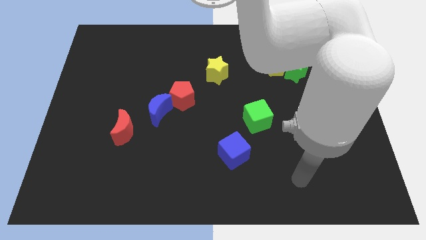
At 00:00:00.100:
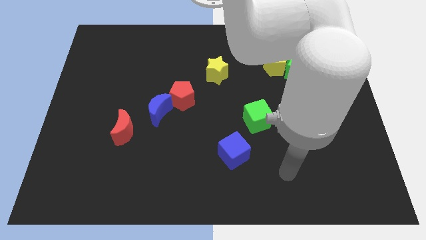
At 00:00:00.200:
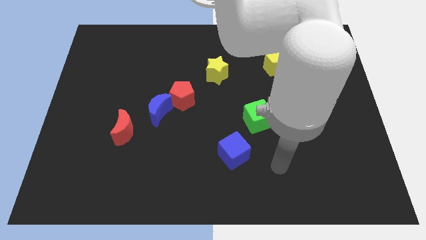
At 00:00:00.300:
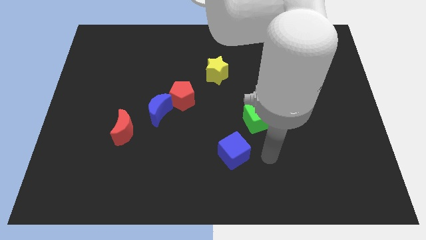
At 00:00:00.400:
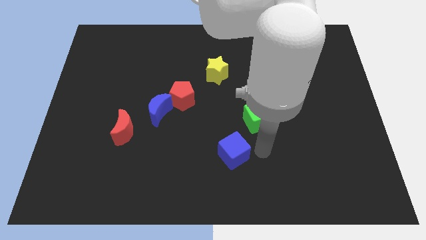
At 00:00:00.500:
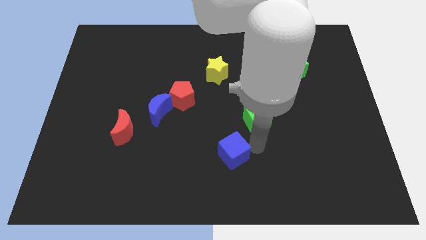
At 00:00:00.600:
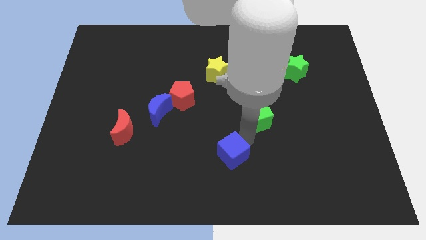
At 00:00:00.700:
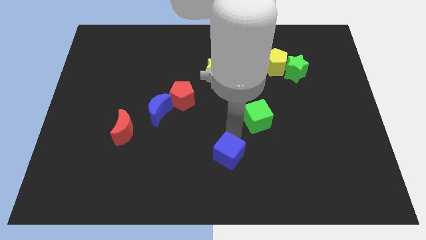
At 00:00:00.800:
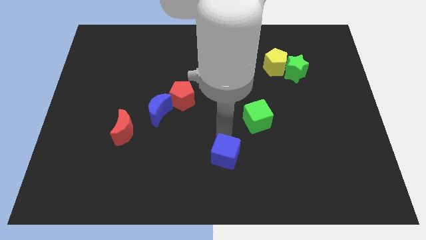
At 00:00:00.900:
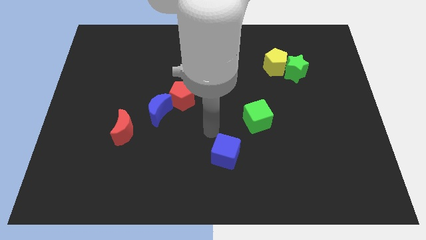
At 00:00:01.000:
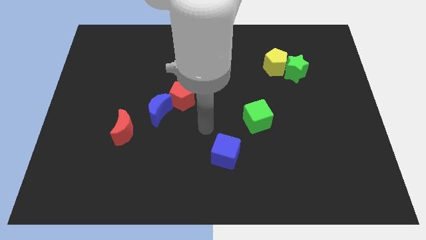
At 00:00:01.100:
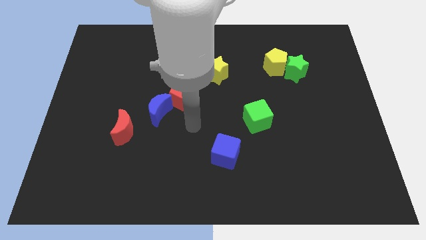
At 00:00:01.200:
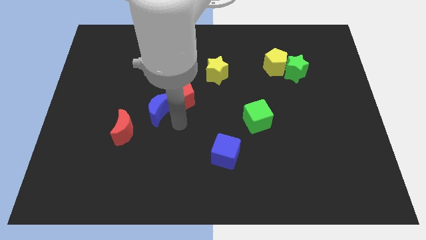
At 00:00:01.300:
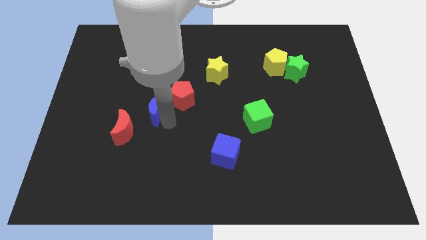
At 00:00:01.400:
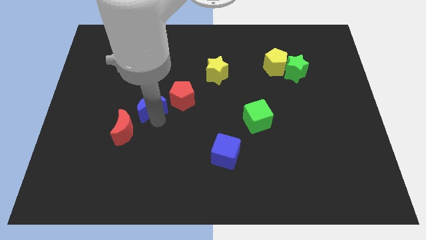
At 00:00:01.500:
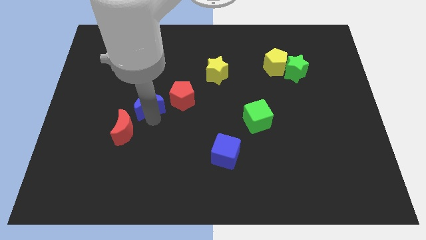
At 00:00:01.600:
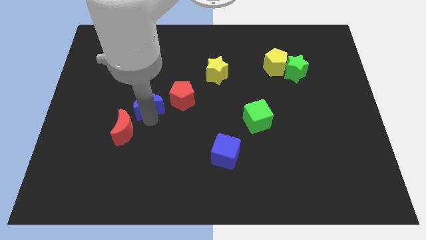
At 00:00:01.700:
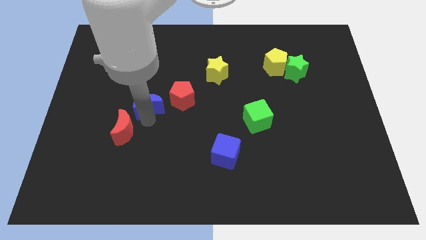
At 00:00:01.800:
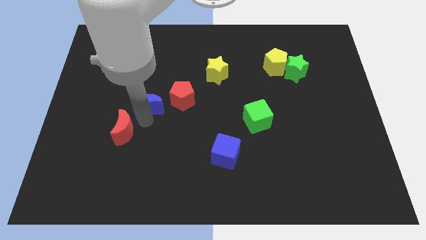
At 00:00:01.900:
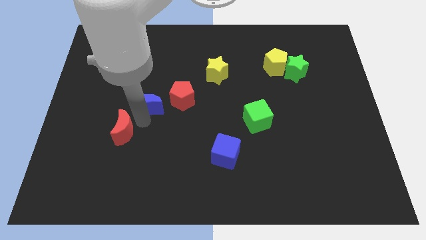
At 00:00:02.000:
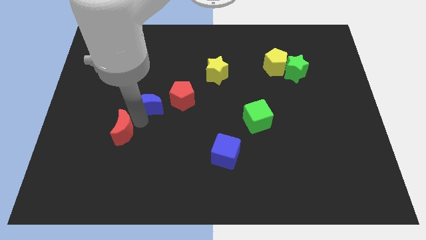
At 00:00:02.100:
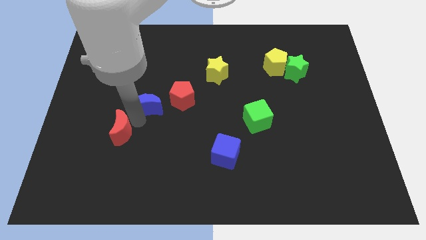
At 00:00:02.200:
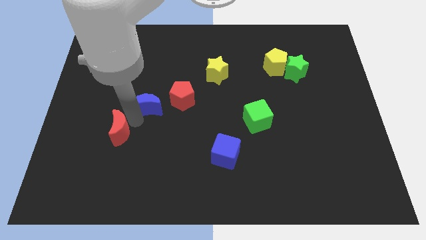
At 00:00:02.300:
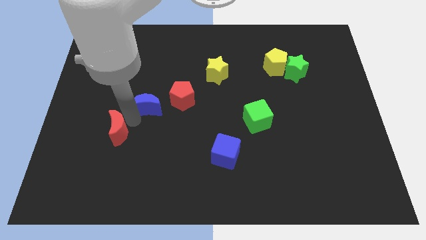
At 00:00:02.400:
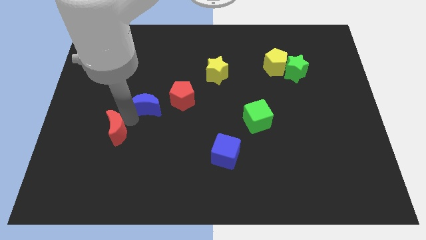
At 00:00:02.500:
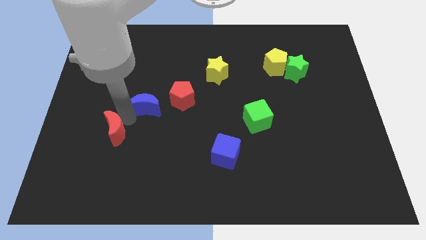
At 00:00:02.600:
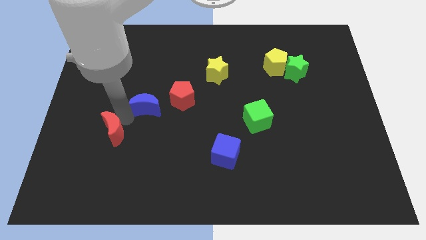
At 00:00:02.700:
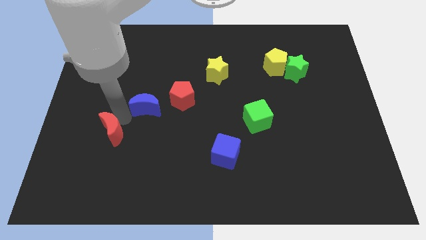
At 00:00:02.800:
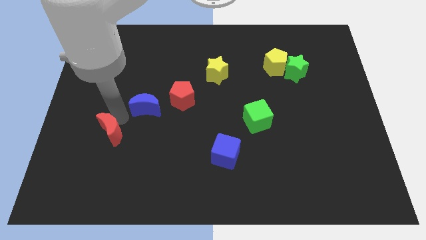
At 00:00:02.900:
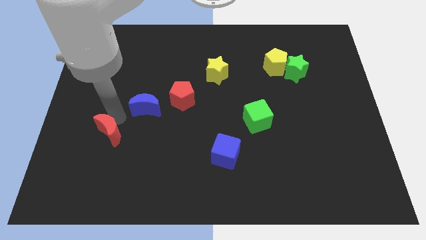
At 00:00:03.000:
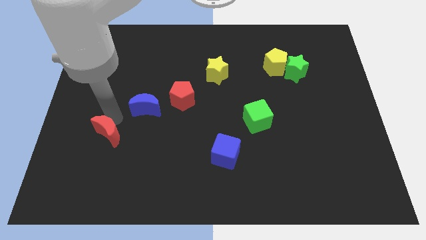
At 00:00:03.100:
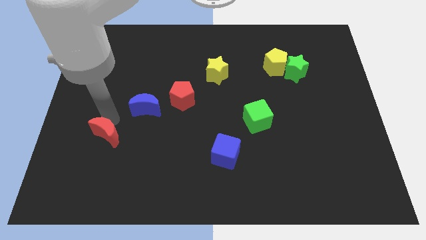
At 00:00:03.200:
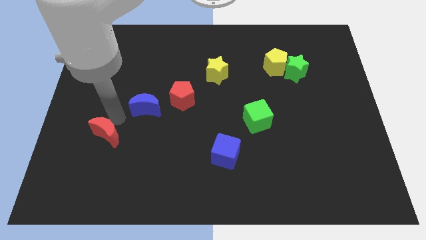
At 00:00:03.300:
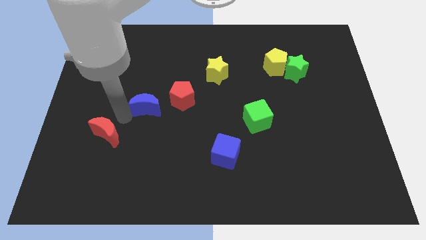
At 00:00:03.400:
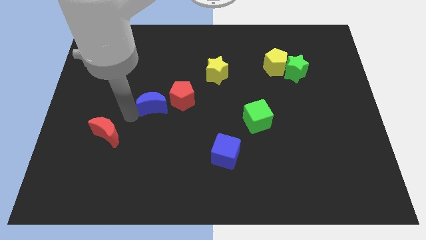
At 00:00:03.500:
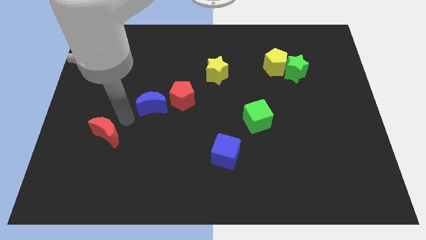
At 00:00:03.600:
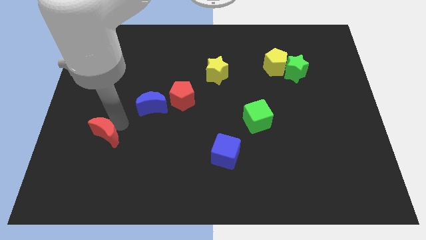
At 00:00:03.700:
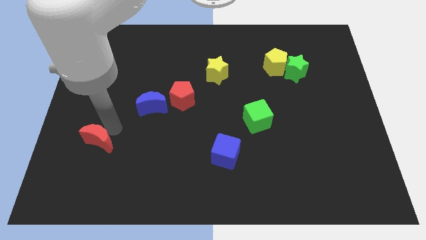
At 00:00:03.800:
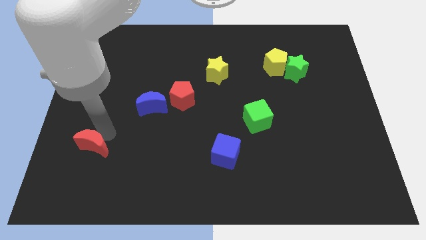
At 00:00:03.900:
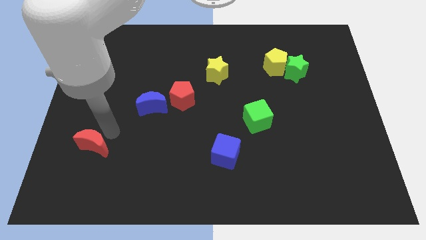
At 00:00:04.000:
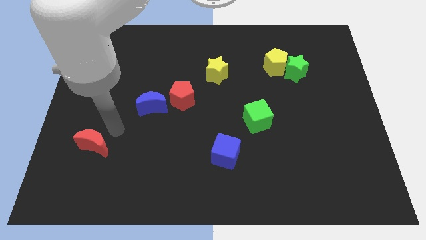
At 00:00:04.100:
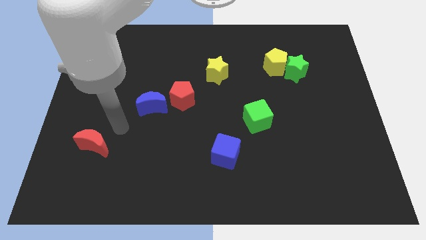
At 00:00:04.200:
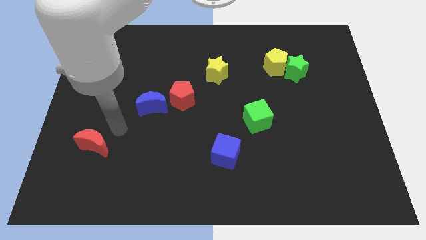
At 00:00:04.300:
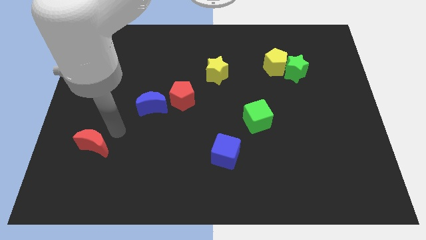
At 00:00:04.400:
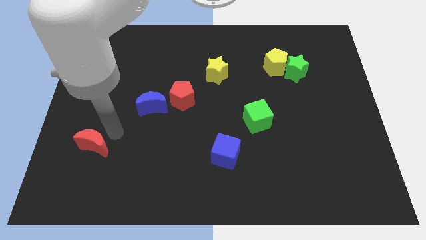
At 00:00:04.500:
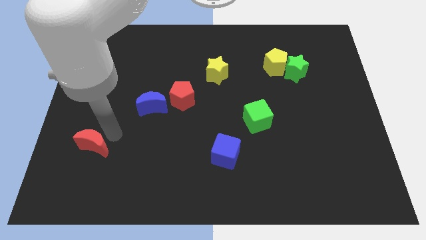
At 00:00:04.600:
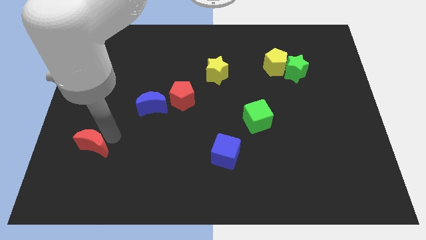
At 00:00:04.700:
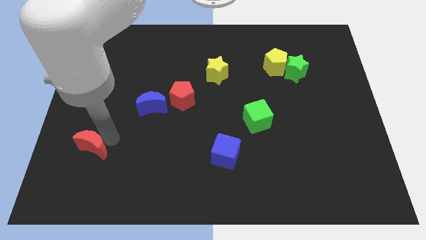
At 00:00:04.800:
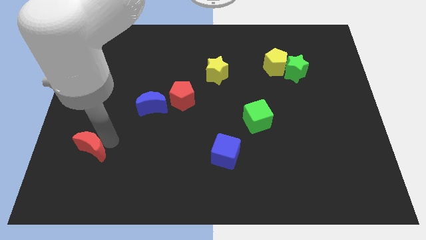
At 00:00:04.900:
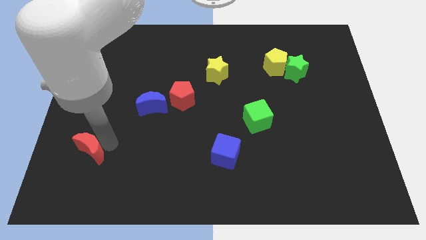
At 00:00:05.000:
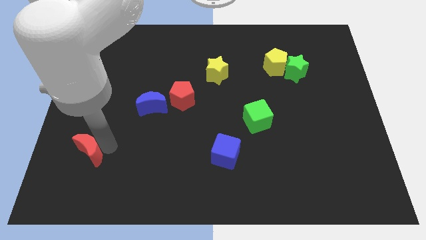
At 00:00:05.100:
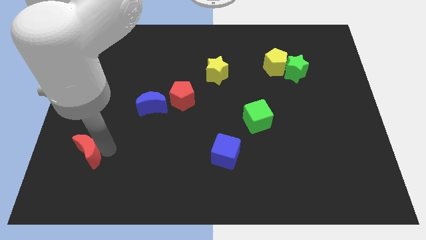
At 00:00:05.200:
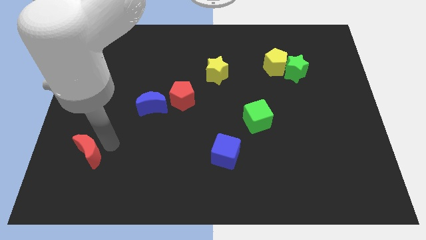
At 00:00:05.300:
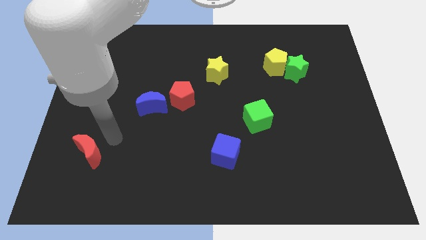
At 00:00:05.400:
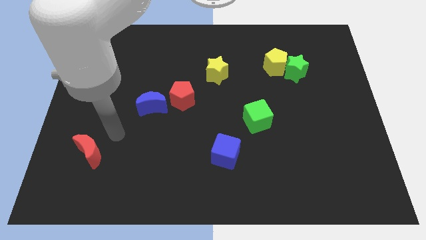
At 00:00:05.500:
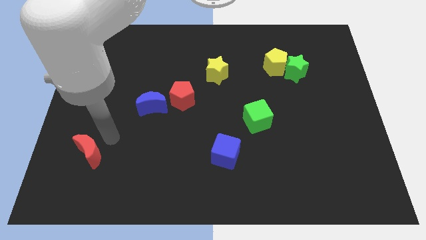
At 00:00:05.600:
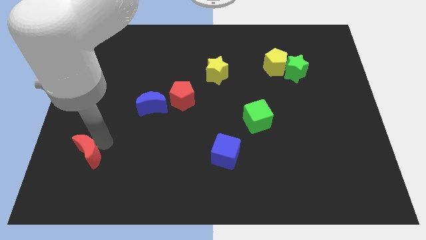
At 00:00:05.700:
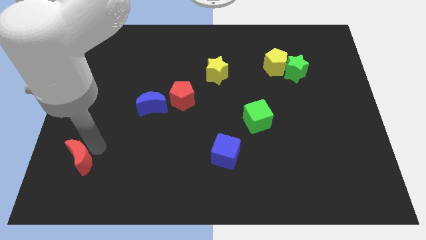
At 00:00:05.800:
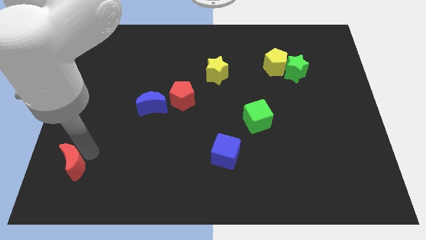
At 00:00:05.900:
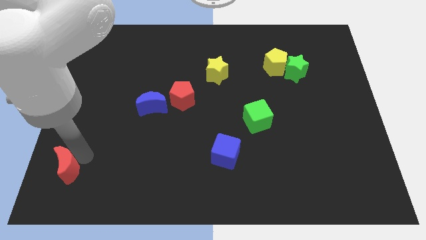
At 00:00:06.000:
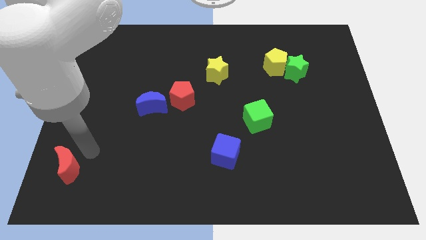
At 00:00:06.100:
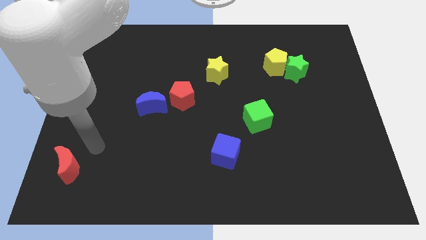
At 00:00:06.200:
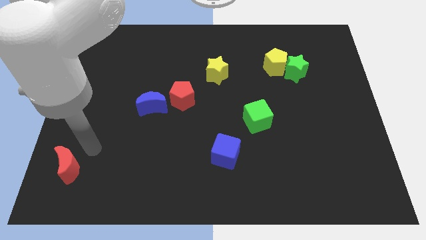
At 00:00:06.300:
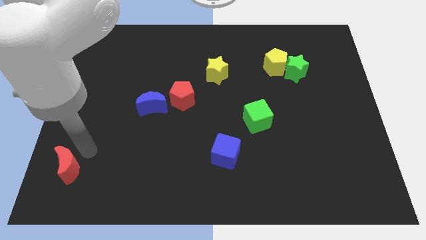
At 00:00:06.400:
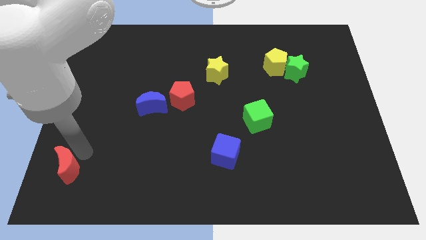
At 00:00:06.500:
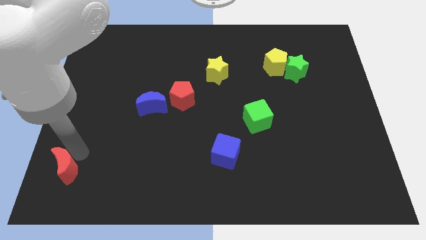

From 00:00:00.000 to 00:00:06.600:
slide the red moon to the bottom left

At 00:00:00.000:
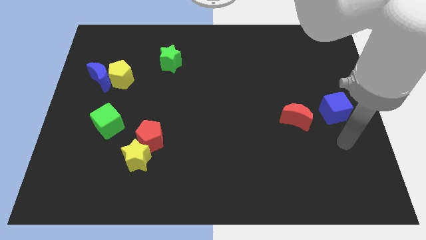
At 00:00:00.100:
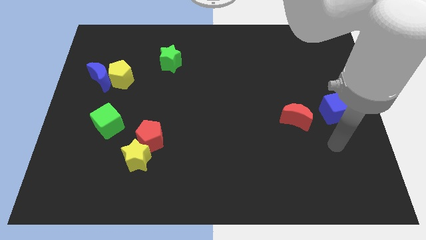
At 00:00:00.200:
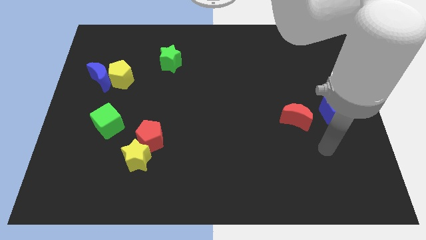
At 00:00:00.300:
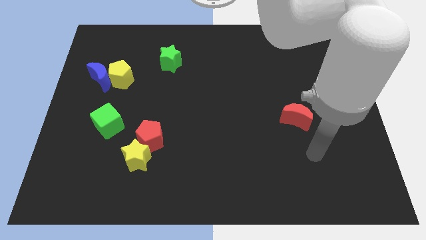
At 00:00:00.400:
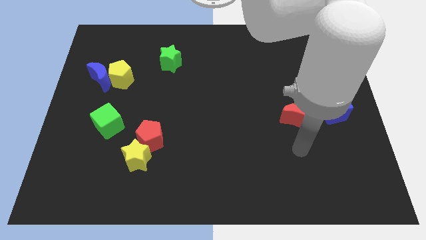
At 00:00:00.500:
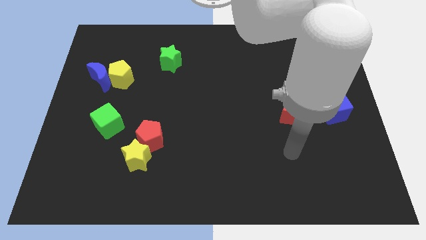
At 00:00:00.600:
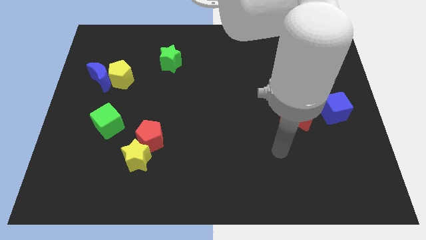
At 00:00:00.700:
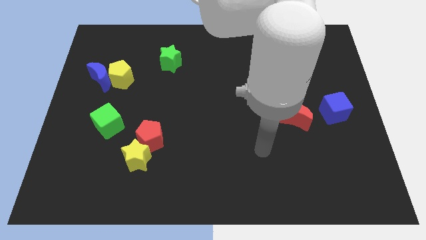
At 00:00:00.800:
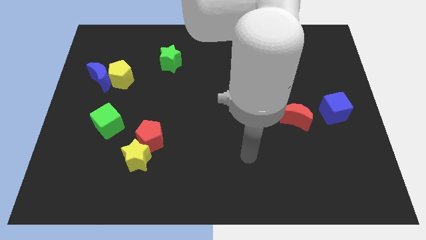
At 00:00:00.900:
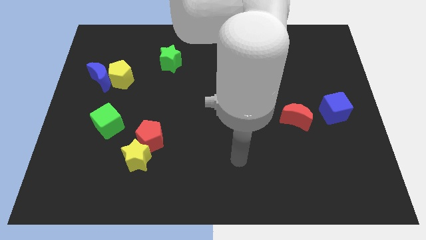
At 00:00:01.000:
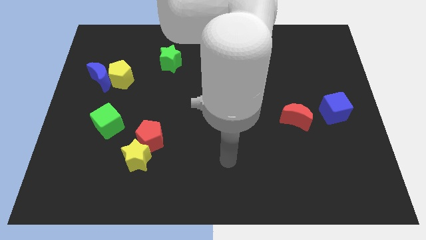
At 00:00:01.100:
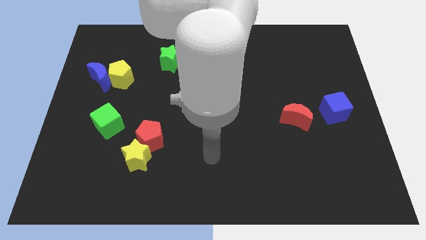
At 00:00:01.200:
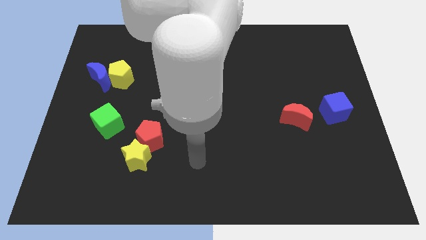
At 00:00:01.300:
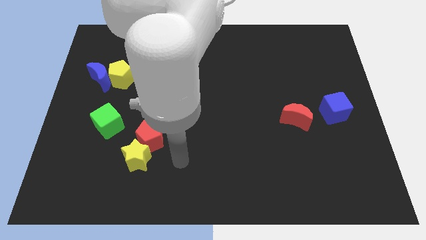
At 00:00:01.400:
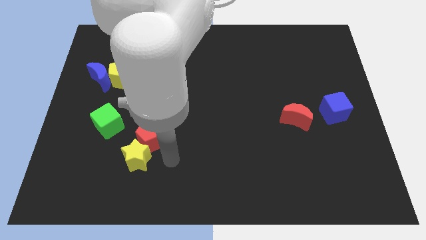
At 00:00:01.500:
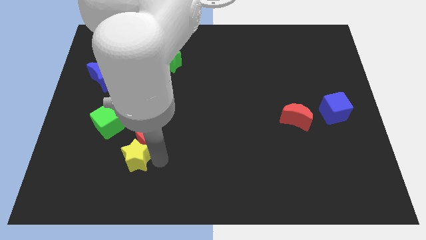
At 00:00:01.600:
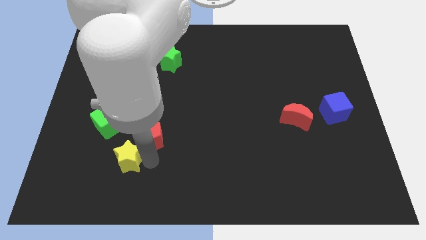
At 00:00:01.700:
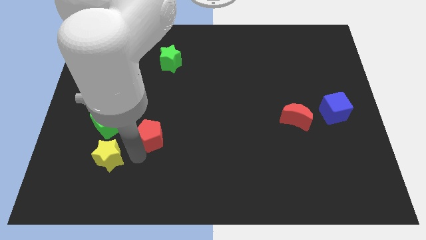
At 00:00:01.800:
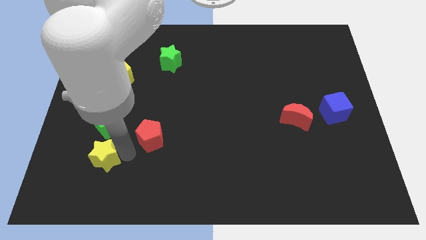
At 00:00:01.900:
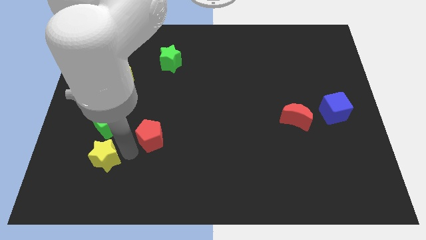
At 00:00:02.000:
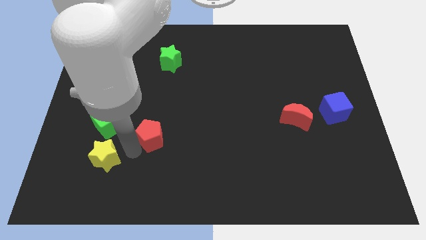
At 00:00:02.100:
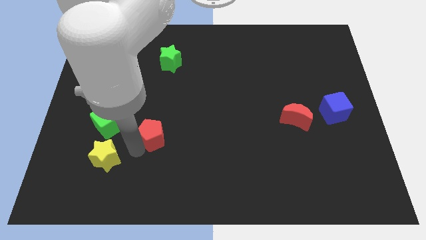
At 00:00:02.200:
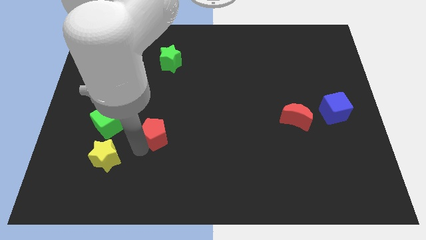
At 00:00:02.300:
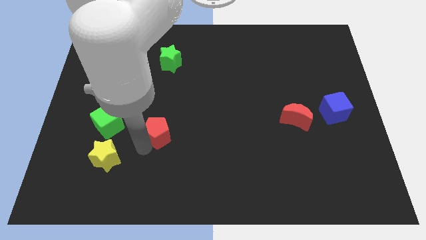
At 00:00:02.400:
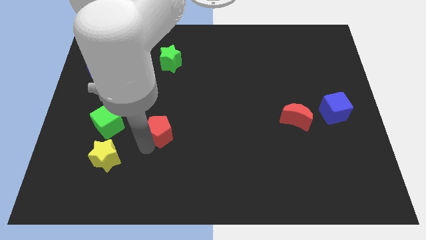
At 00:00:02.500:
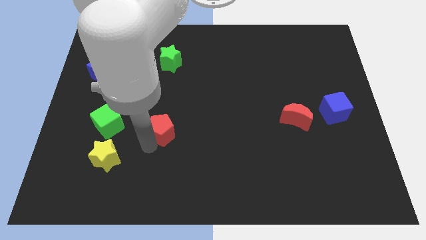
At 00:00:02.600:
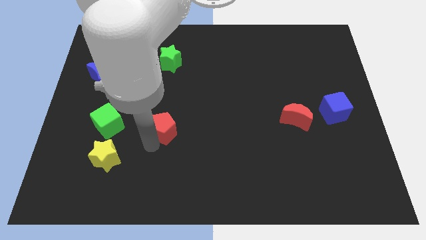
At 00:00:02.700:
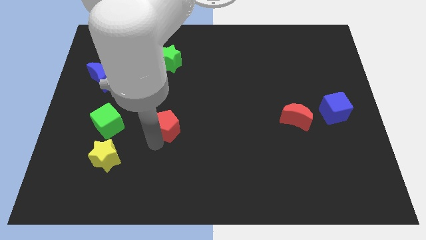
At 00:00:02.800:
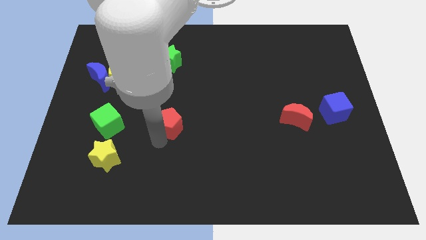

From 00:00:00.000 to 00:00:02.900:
put the red pentagon to the center of the board
